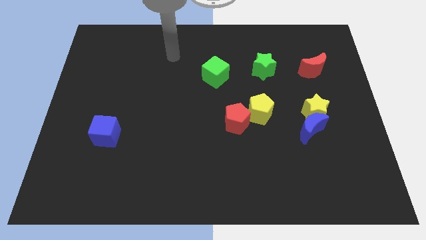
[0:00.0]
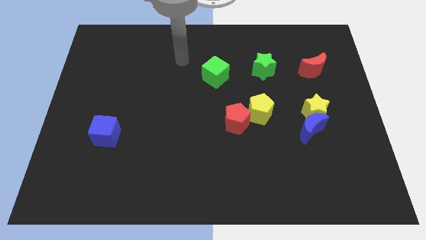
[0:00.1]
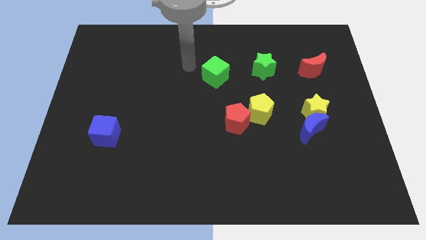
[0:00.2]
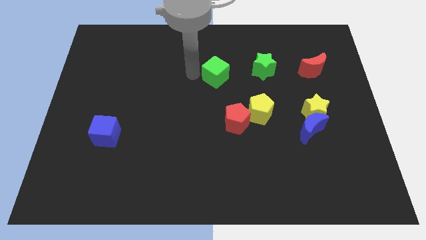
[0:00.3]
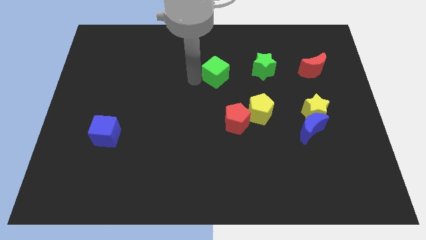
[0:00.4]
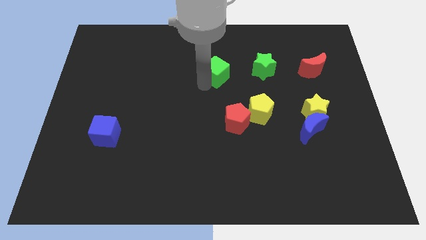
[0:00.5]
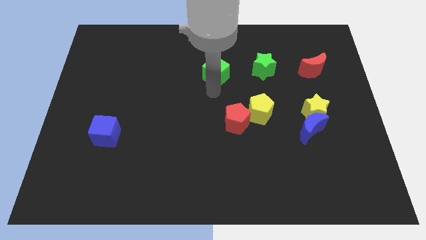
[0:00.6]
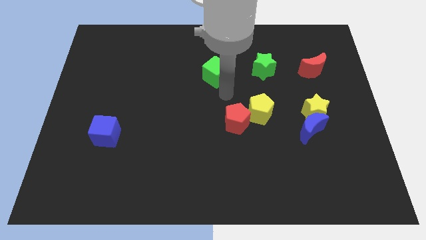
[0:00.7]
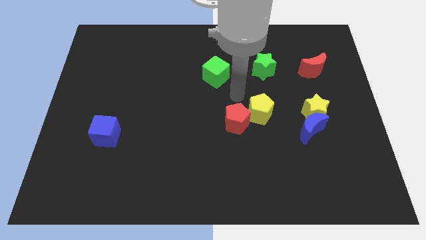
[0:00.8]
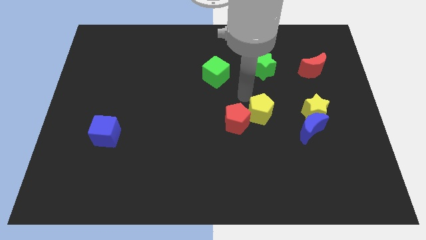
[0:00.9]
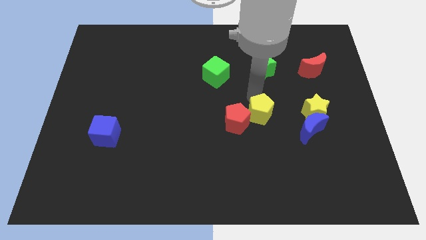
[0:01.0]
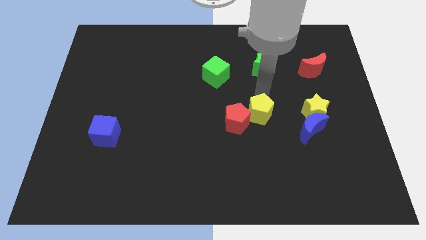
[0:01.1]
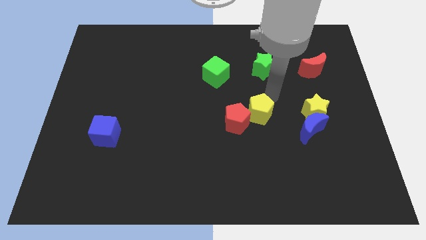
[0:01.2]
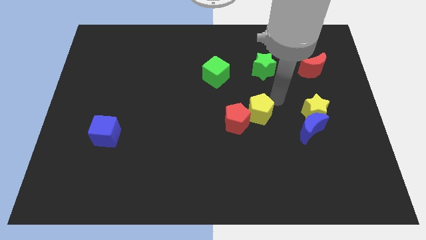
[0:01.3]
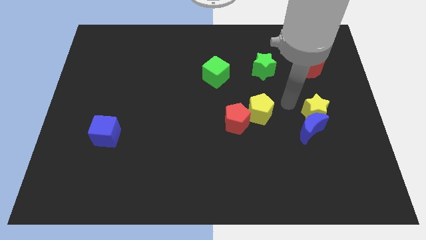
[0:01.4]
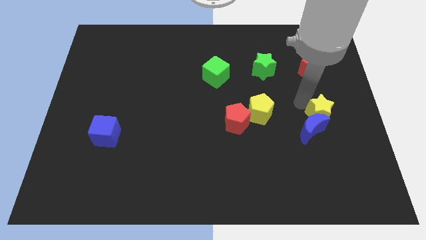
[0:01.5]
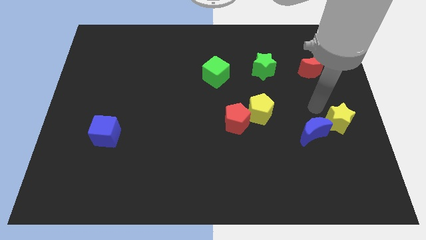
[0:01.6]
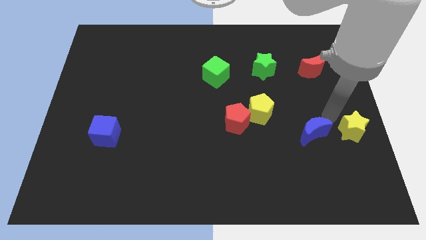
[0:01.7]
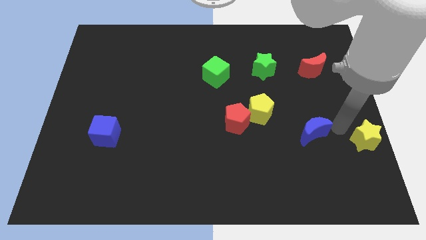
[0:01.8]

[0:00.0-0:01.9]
separate the blue moon from the yellow star

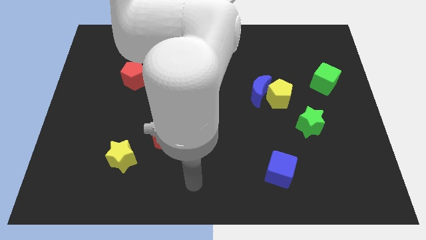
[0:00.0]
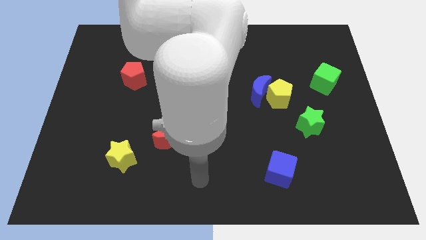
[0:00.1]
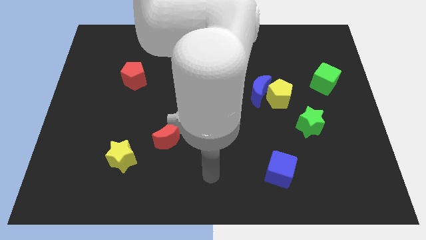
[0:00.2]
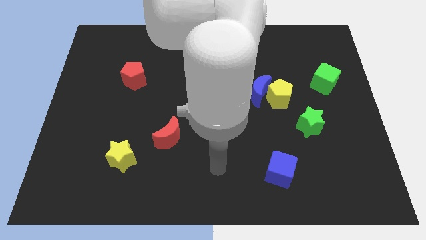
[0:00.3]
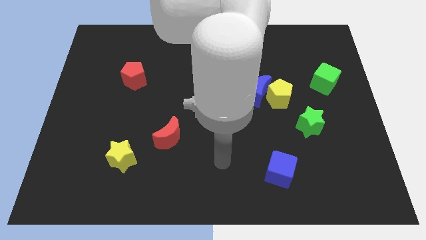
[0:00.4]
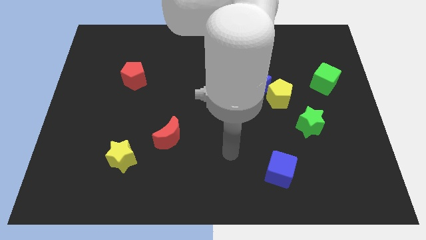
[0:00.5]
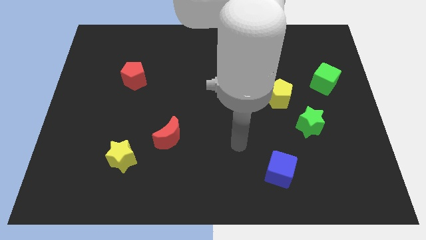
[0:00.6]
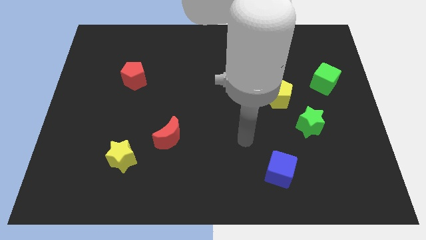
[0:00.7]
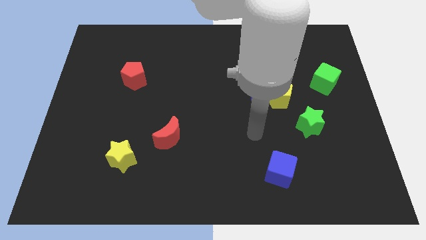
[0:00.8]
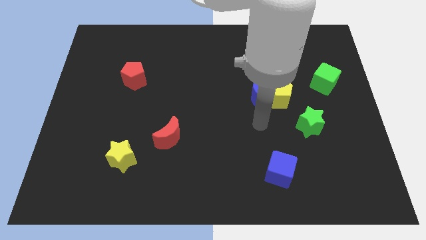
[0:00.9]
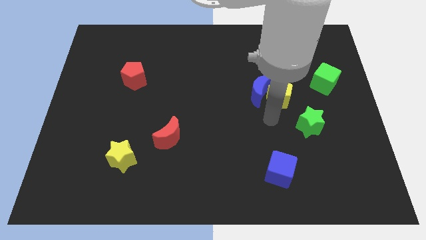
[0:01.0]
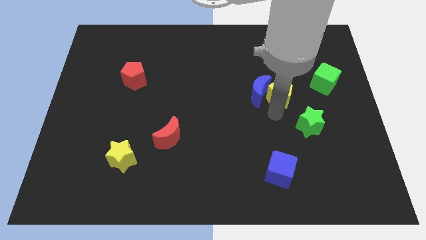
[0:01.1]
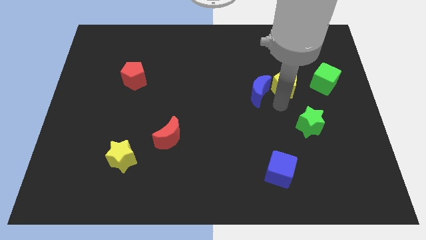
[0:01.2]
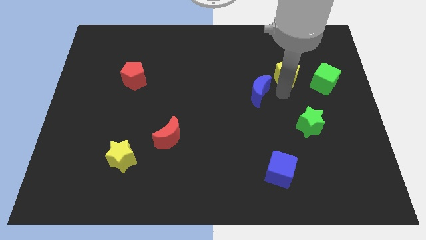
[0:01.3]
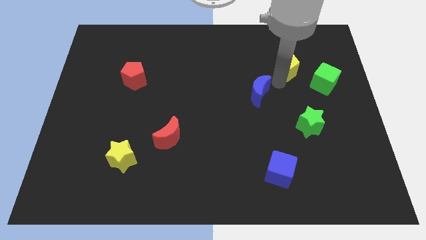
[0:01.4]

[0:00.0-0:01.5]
move the blue moon away from the yellow pentagon

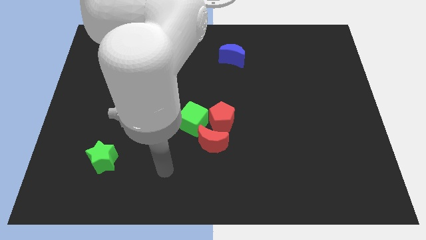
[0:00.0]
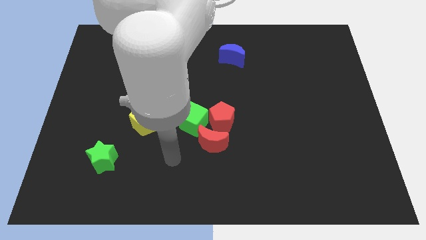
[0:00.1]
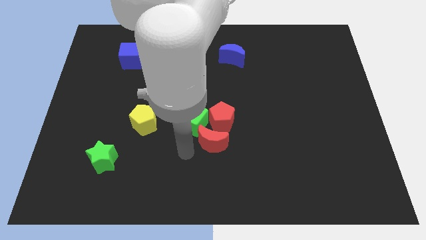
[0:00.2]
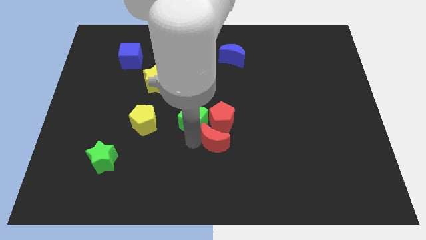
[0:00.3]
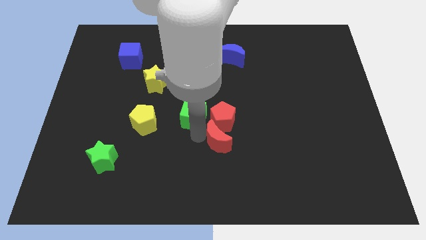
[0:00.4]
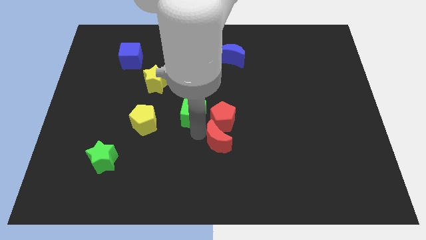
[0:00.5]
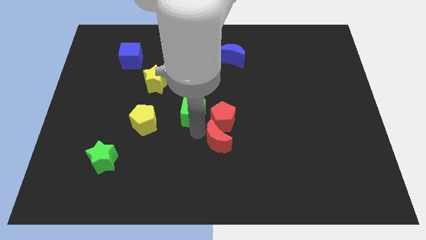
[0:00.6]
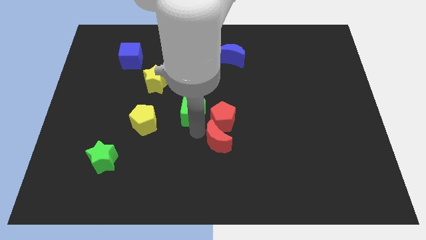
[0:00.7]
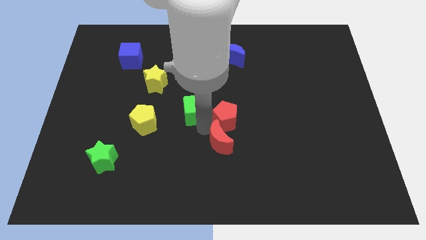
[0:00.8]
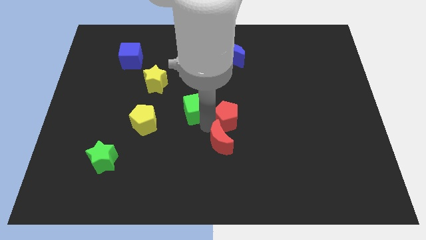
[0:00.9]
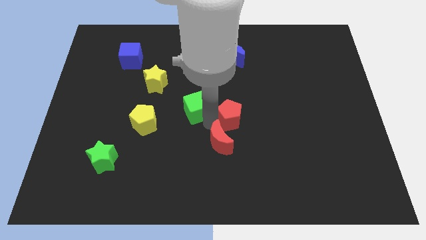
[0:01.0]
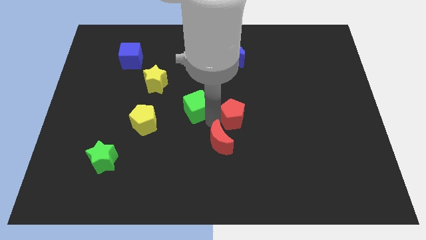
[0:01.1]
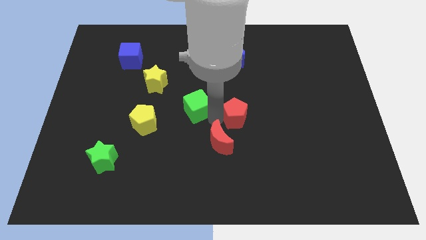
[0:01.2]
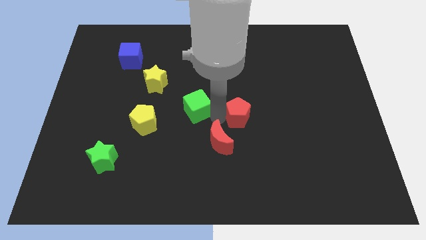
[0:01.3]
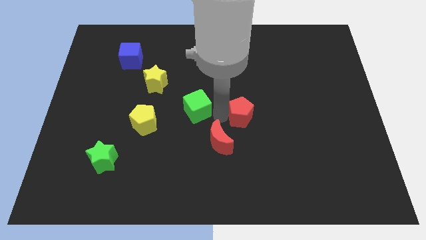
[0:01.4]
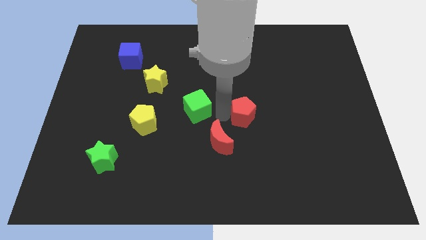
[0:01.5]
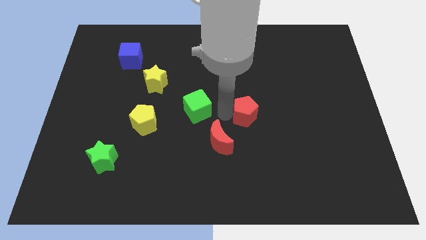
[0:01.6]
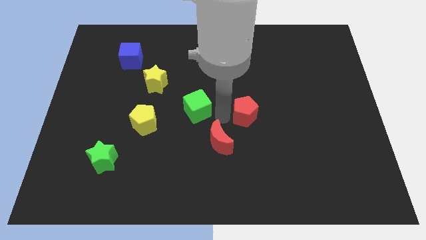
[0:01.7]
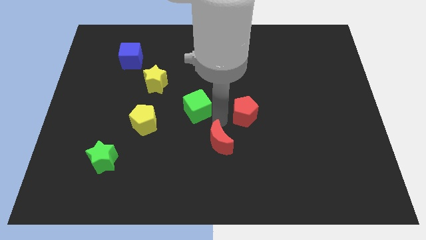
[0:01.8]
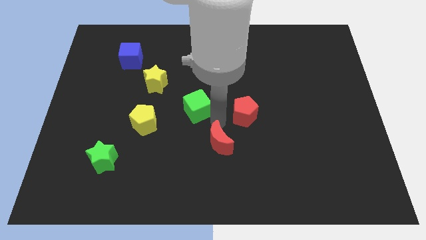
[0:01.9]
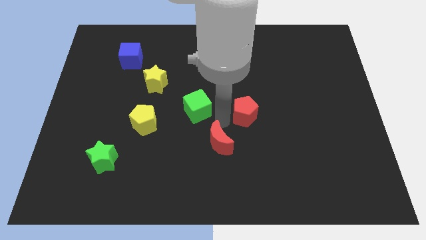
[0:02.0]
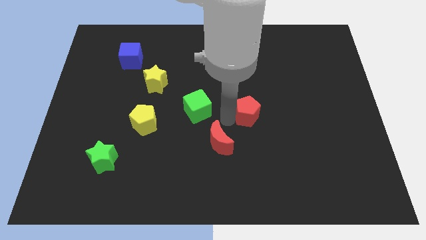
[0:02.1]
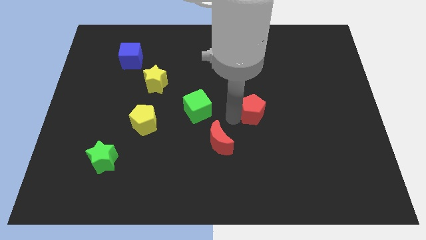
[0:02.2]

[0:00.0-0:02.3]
move the red pentagon away from the green cube and red moon

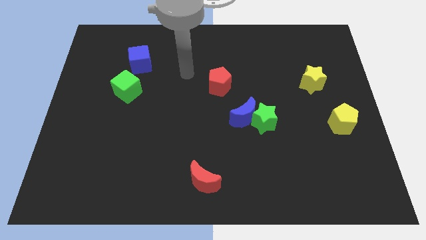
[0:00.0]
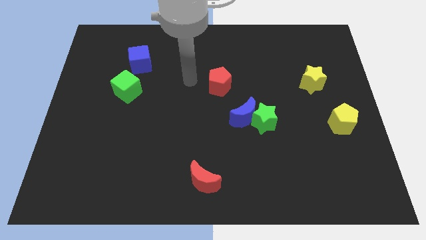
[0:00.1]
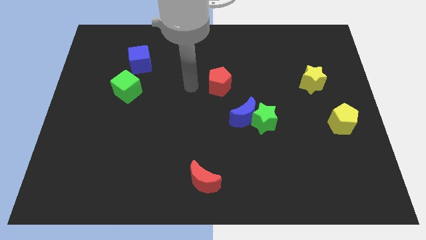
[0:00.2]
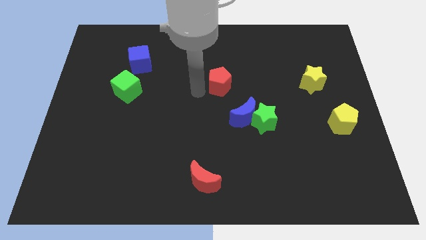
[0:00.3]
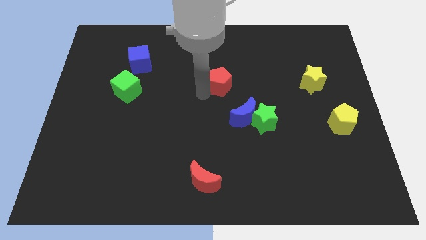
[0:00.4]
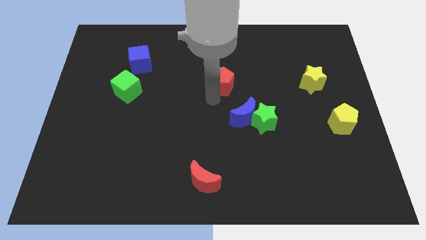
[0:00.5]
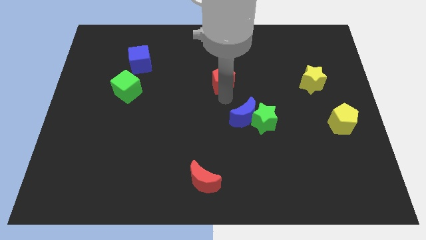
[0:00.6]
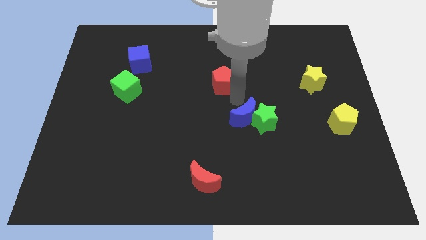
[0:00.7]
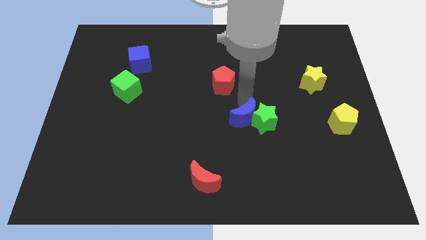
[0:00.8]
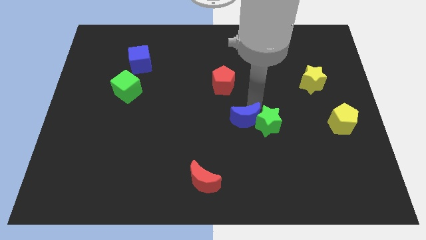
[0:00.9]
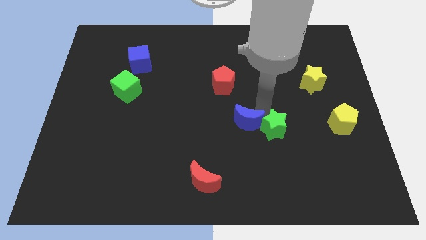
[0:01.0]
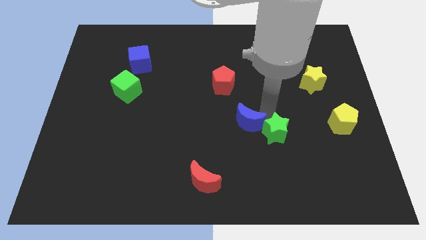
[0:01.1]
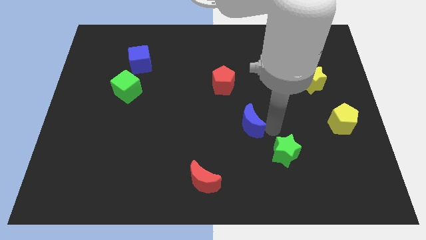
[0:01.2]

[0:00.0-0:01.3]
move the blue moon away from the green star

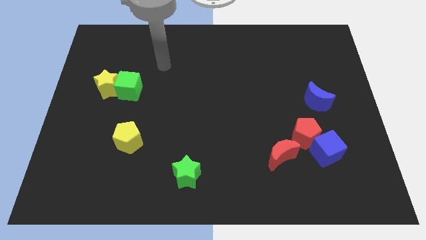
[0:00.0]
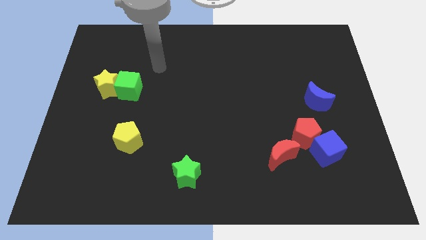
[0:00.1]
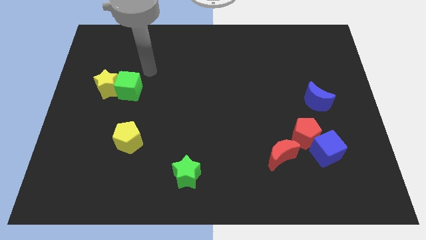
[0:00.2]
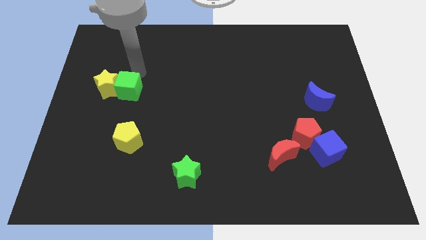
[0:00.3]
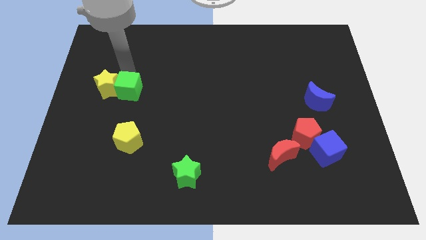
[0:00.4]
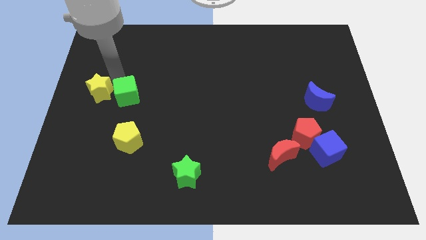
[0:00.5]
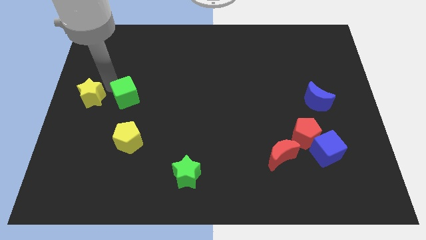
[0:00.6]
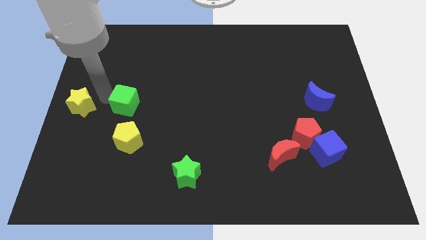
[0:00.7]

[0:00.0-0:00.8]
separate the green cube from the yellow star

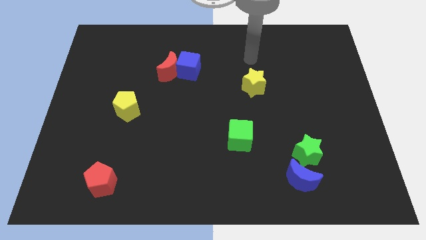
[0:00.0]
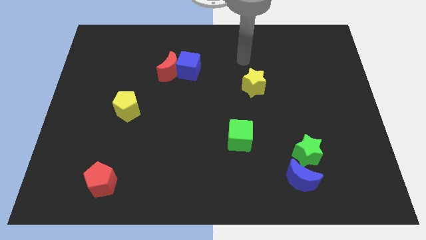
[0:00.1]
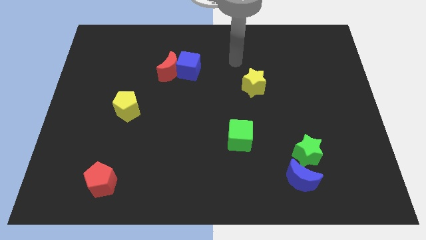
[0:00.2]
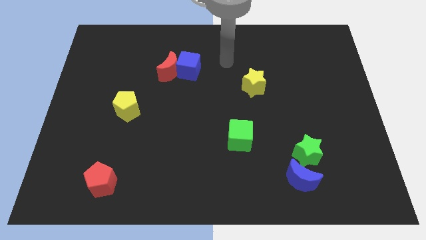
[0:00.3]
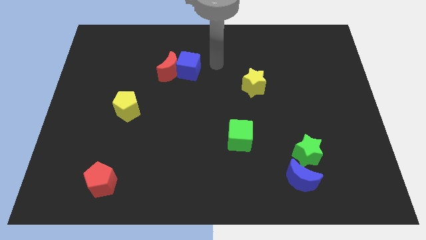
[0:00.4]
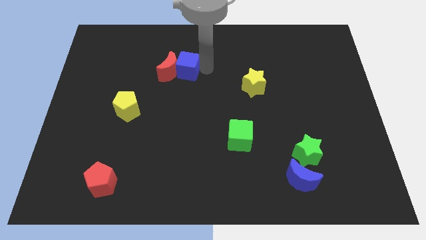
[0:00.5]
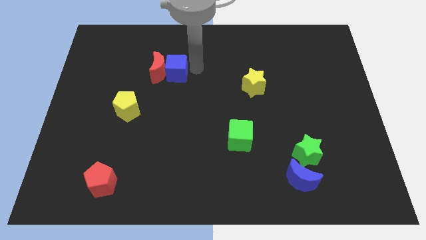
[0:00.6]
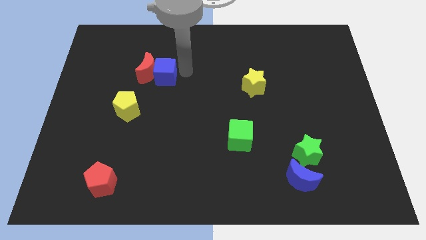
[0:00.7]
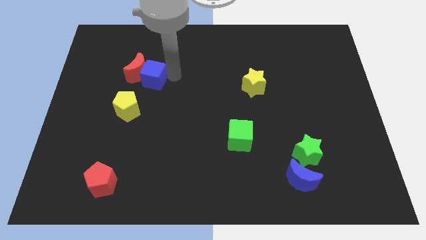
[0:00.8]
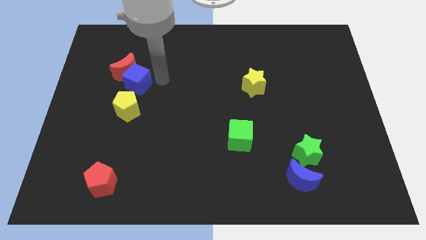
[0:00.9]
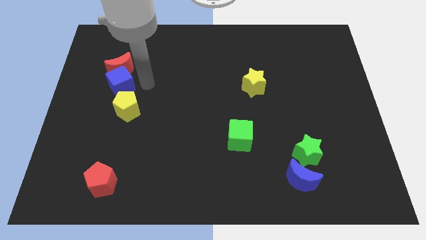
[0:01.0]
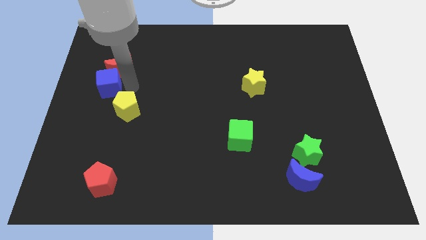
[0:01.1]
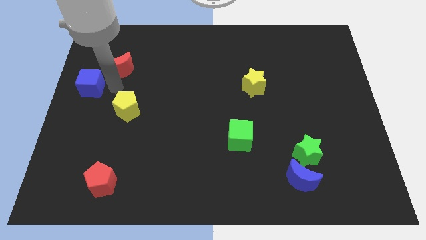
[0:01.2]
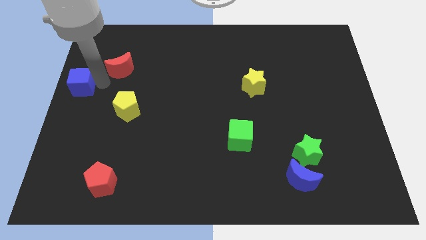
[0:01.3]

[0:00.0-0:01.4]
move the red moon away from the blue cube

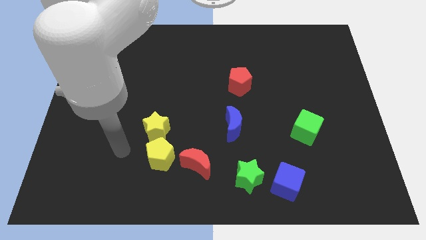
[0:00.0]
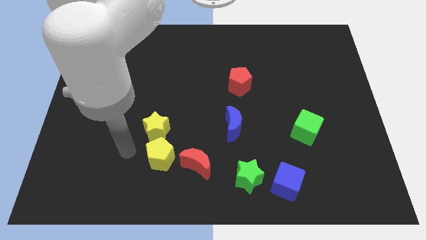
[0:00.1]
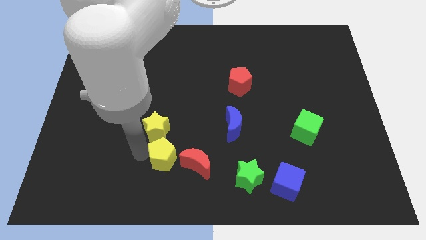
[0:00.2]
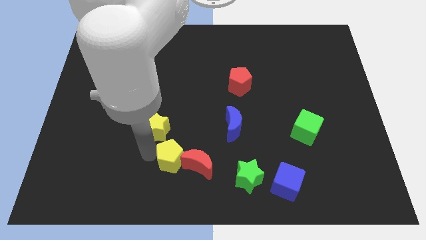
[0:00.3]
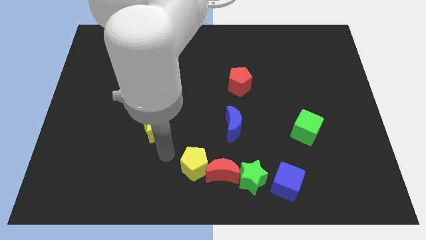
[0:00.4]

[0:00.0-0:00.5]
pull the yellow star apart from the yellow pentagon
